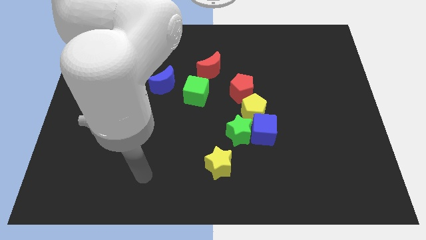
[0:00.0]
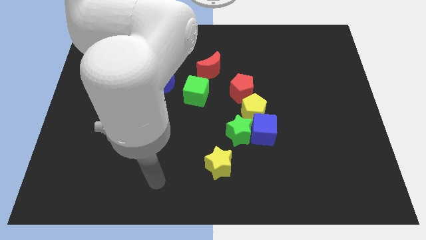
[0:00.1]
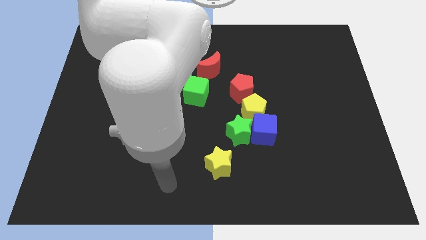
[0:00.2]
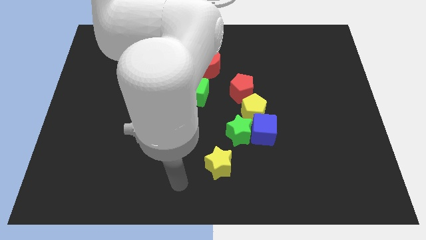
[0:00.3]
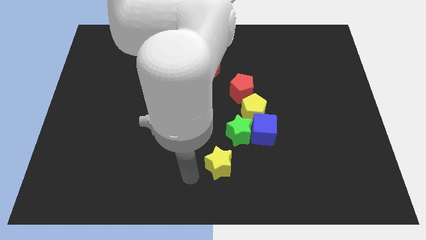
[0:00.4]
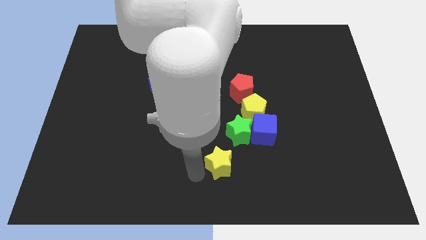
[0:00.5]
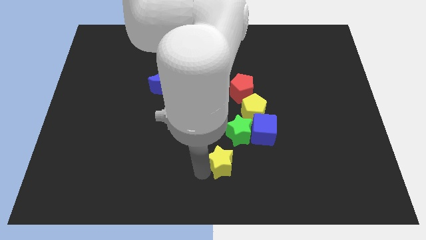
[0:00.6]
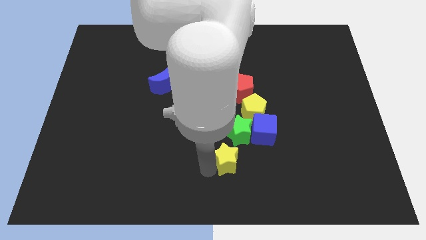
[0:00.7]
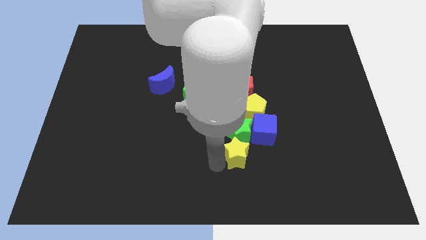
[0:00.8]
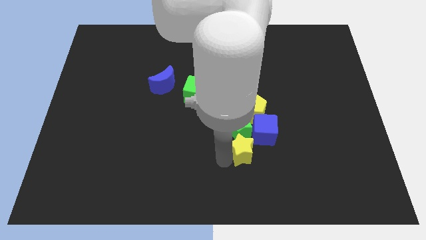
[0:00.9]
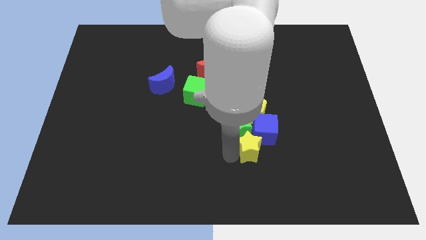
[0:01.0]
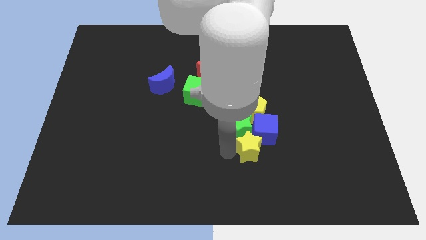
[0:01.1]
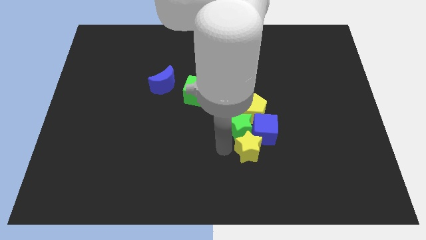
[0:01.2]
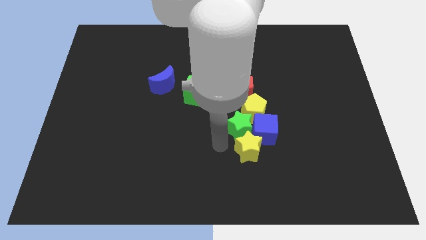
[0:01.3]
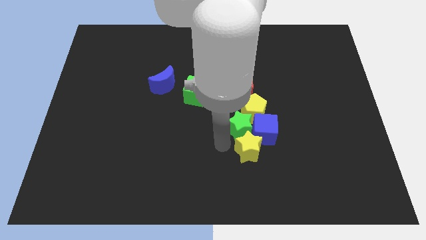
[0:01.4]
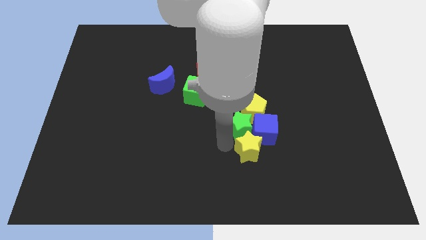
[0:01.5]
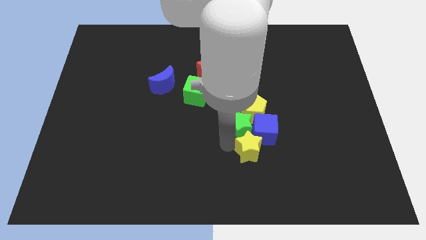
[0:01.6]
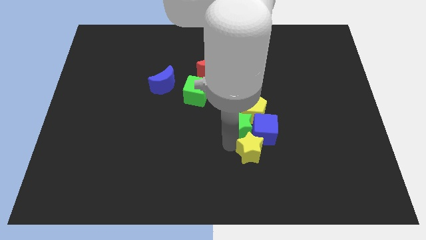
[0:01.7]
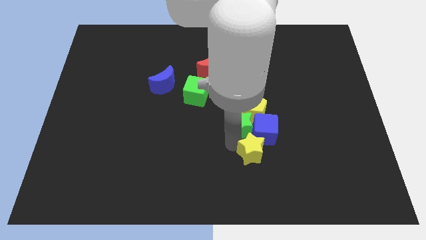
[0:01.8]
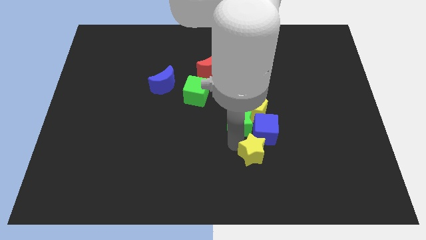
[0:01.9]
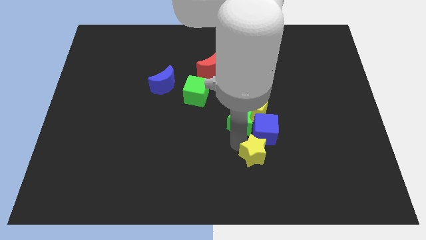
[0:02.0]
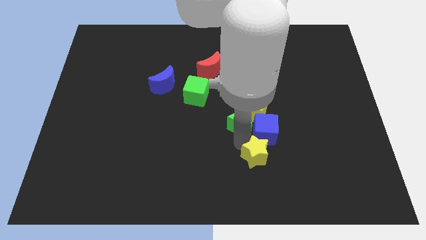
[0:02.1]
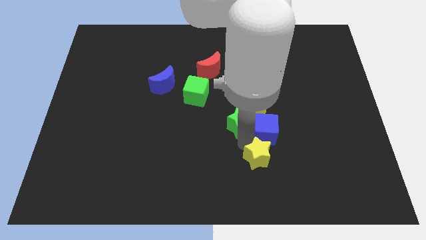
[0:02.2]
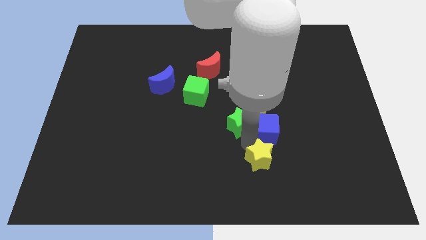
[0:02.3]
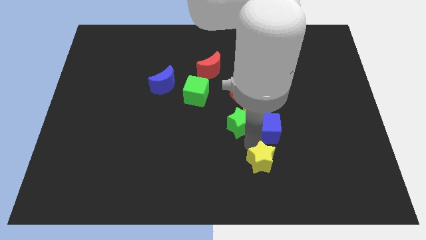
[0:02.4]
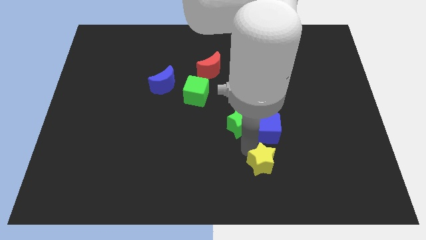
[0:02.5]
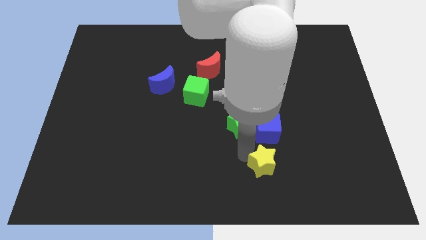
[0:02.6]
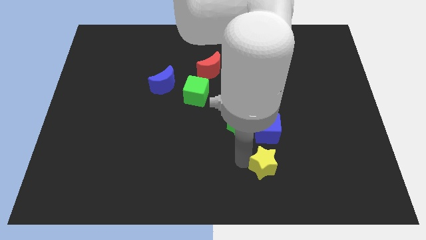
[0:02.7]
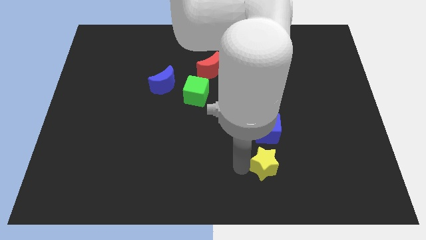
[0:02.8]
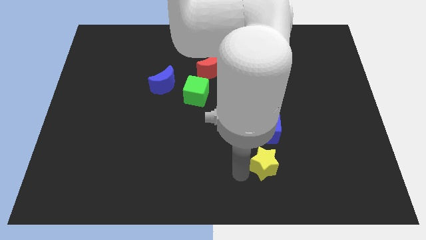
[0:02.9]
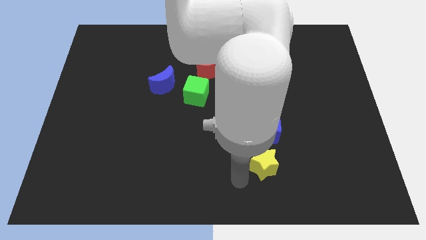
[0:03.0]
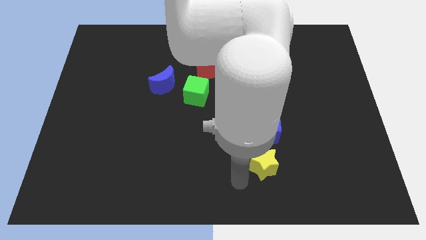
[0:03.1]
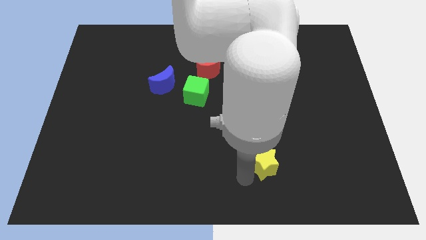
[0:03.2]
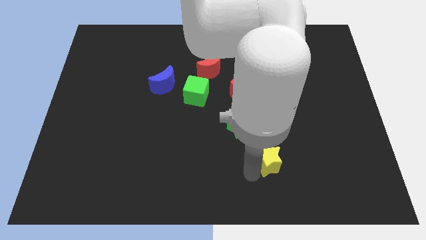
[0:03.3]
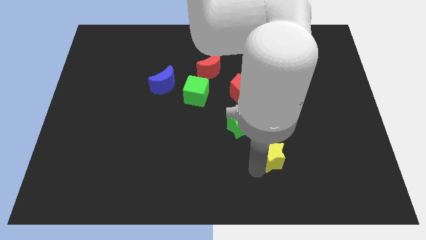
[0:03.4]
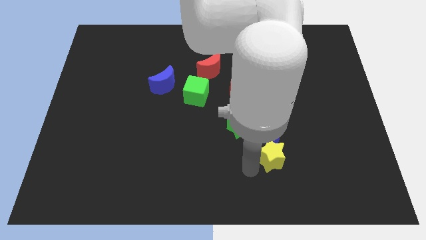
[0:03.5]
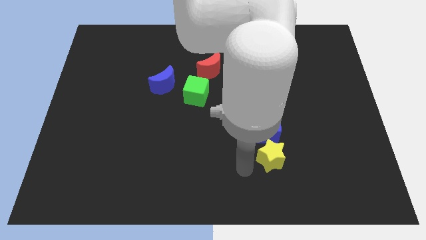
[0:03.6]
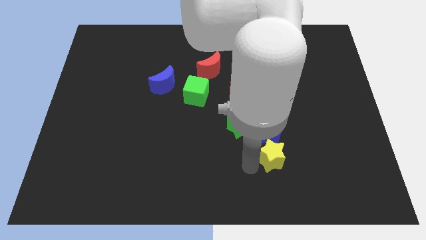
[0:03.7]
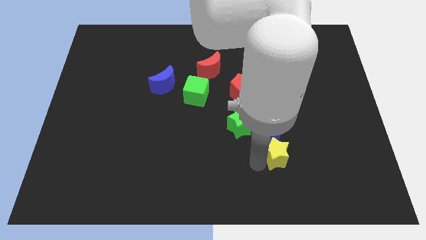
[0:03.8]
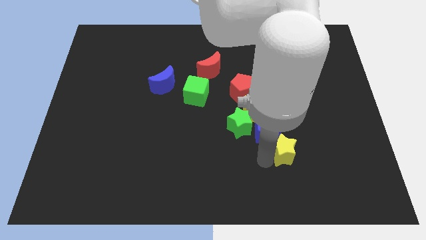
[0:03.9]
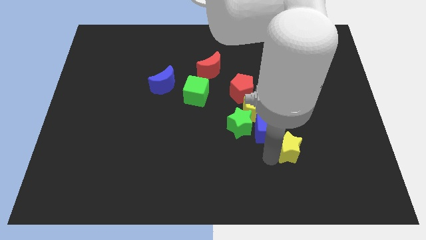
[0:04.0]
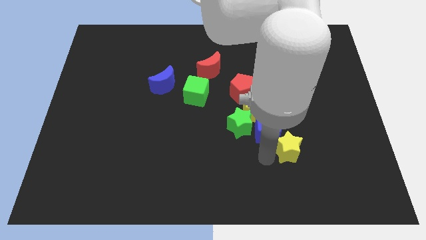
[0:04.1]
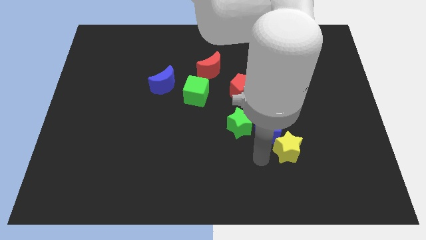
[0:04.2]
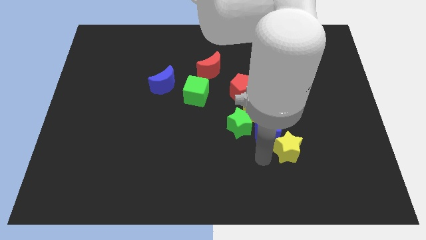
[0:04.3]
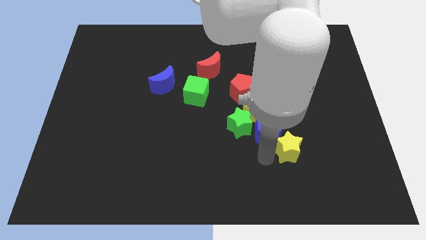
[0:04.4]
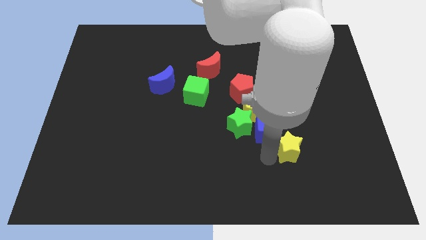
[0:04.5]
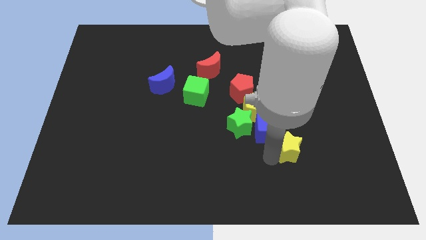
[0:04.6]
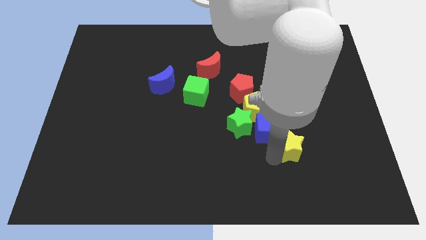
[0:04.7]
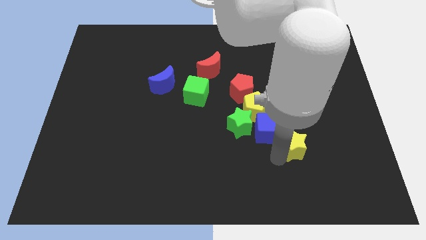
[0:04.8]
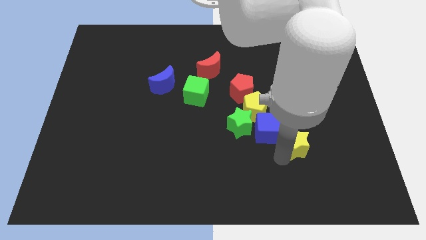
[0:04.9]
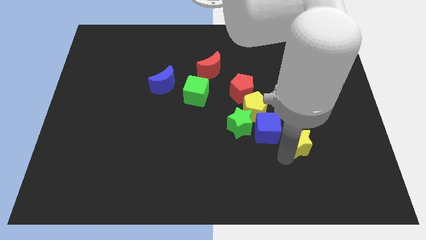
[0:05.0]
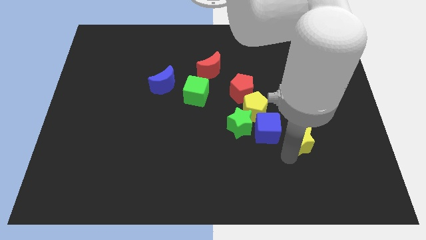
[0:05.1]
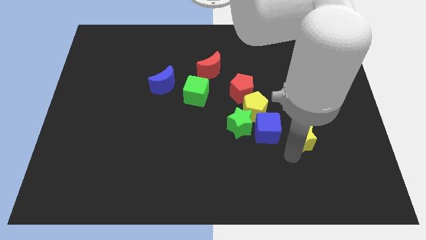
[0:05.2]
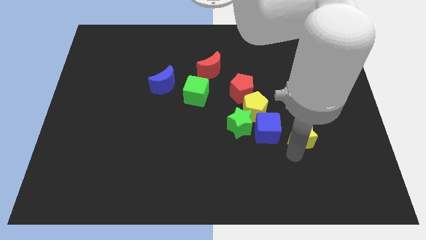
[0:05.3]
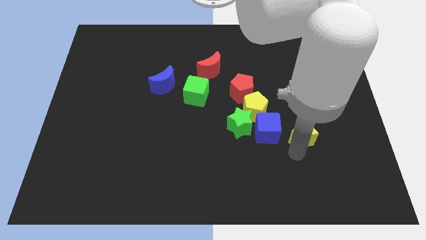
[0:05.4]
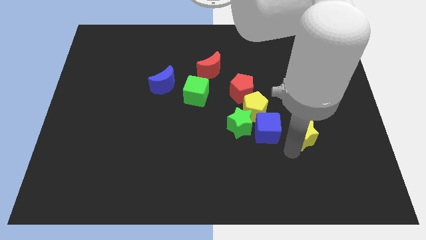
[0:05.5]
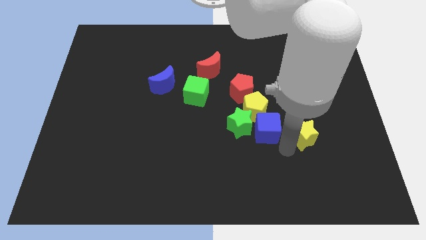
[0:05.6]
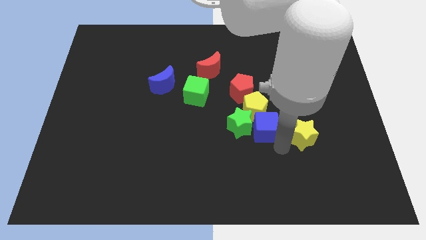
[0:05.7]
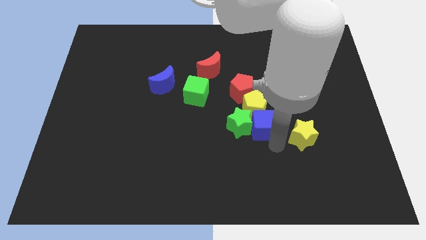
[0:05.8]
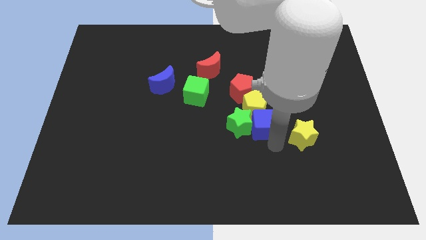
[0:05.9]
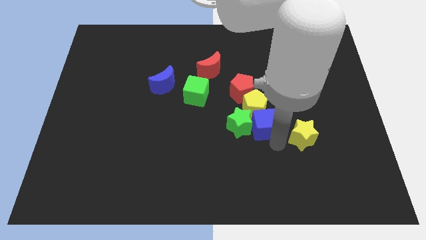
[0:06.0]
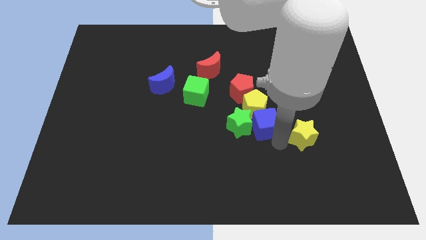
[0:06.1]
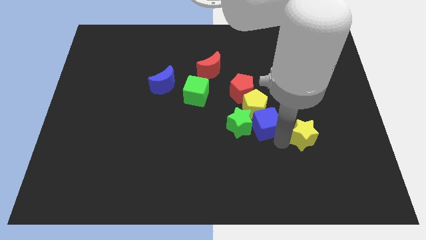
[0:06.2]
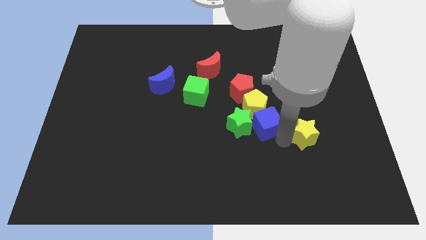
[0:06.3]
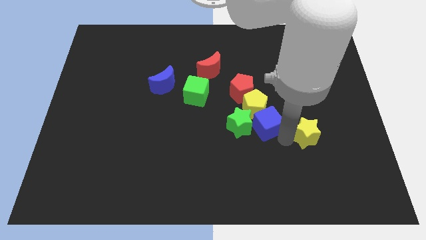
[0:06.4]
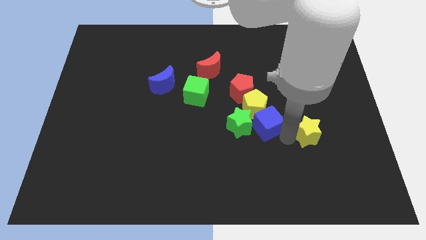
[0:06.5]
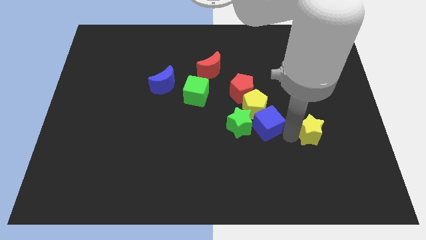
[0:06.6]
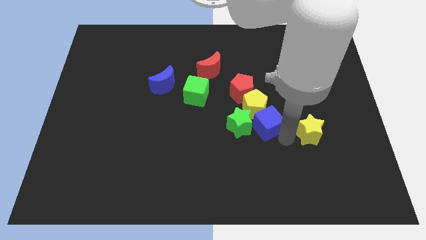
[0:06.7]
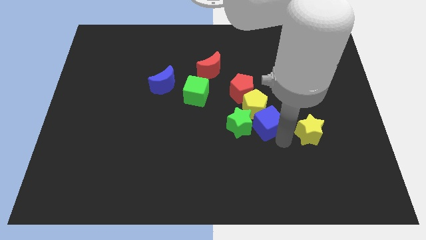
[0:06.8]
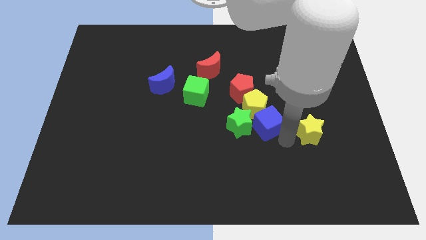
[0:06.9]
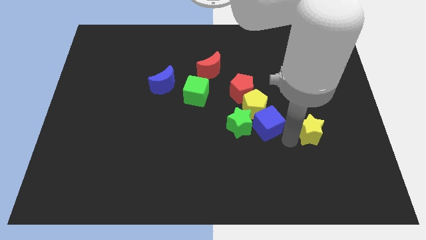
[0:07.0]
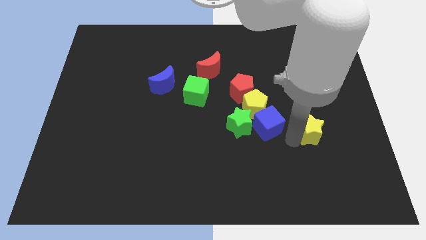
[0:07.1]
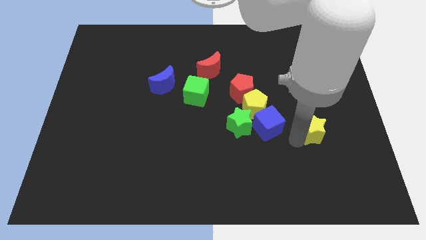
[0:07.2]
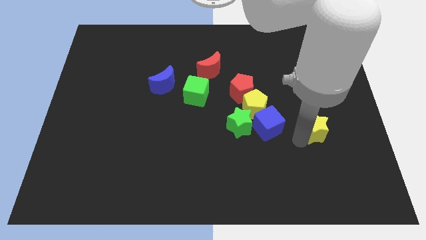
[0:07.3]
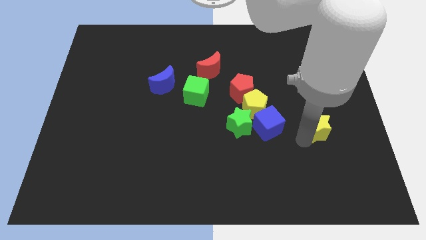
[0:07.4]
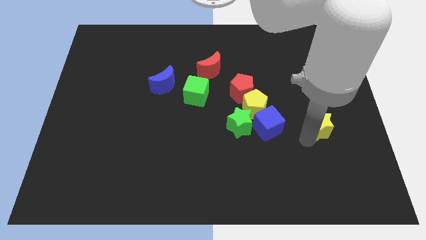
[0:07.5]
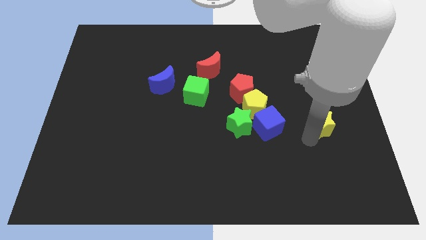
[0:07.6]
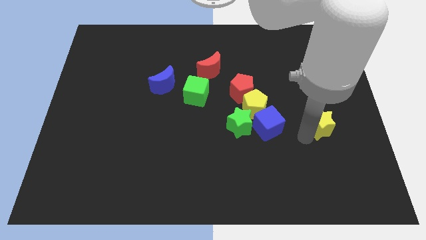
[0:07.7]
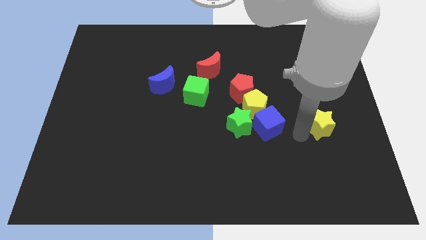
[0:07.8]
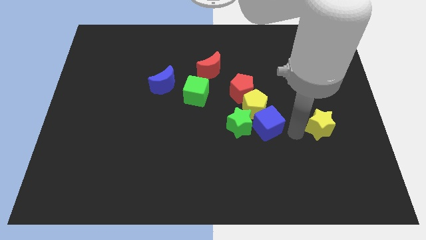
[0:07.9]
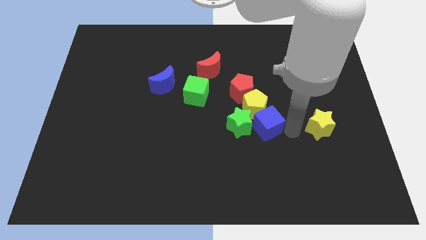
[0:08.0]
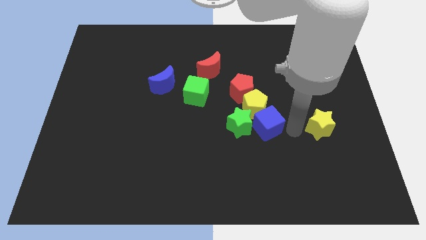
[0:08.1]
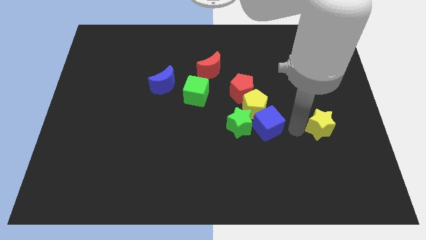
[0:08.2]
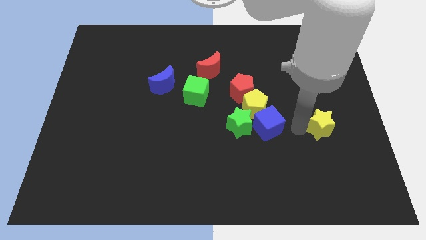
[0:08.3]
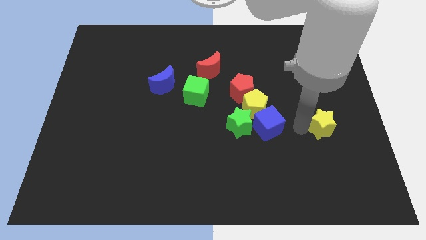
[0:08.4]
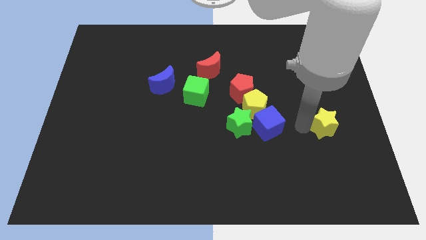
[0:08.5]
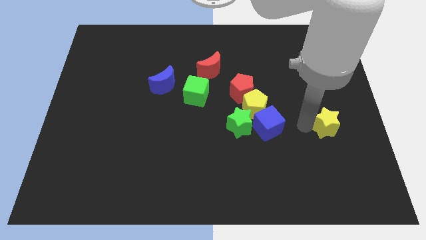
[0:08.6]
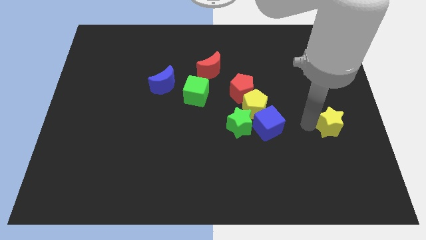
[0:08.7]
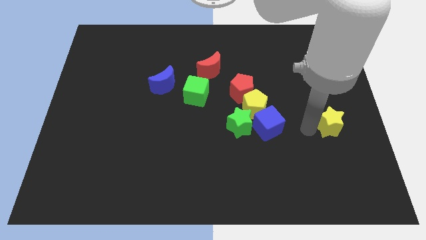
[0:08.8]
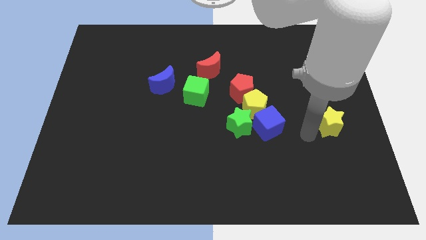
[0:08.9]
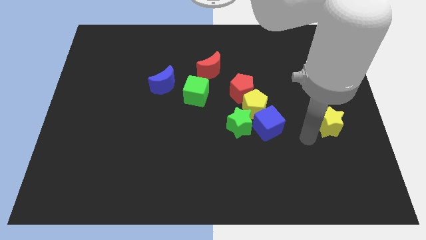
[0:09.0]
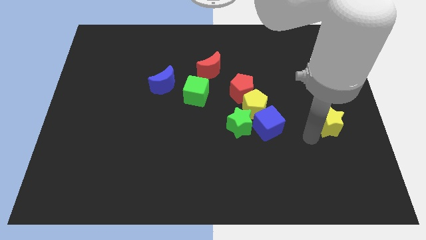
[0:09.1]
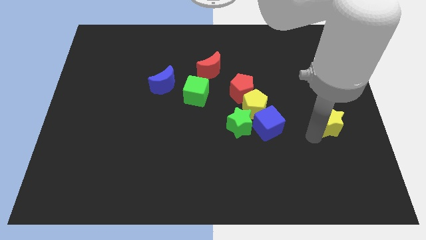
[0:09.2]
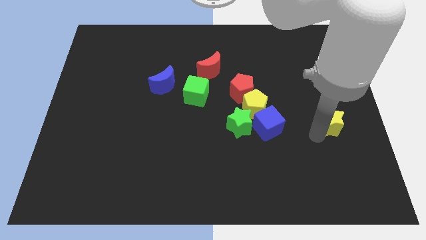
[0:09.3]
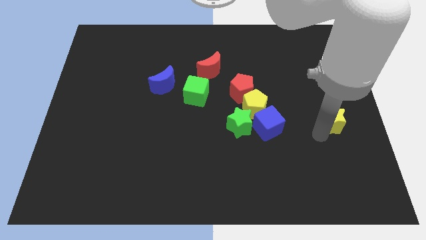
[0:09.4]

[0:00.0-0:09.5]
push the yellow star to the center right
